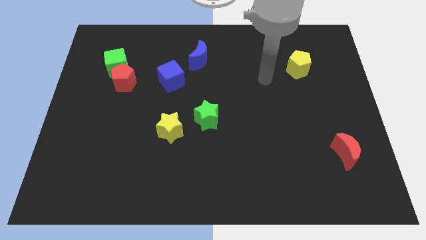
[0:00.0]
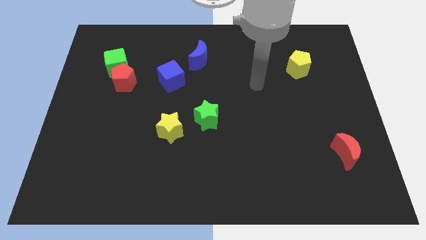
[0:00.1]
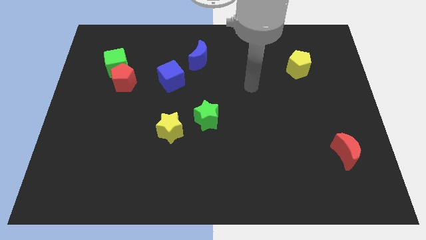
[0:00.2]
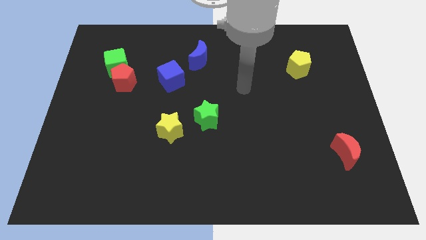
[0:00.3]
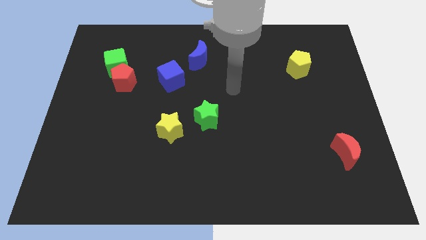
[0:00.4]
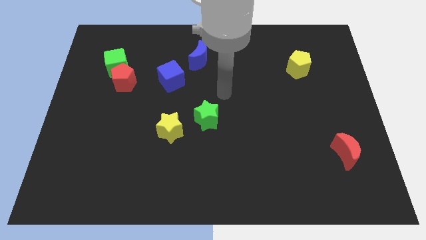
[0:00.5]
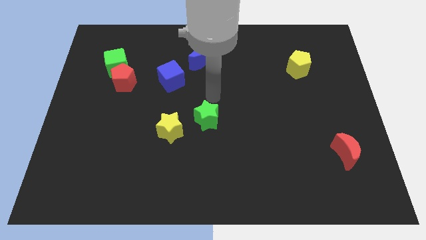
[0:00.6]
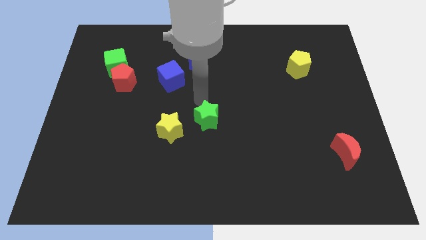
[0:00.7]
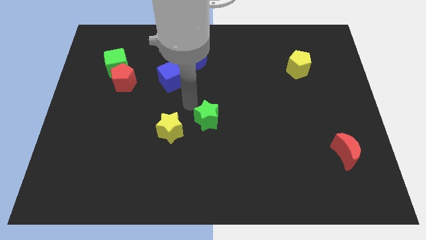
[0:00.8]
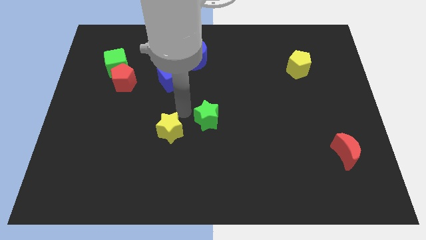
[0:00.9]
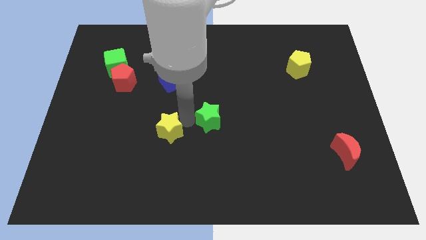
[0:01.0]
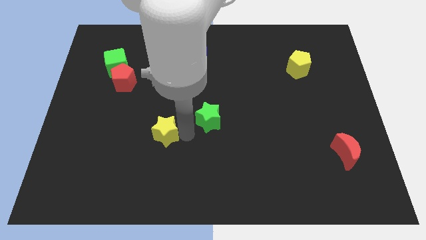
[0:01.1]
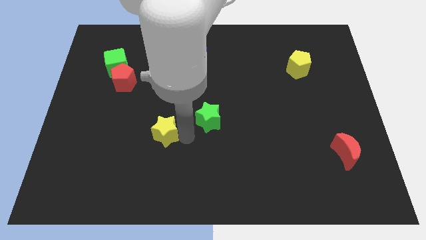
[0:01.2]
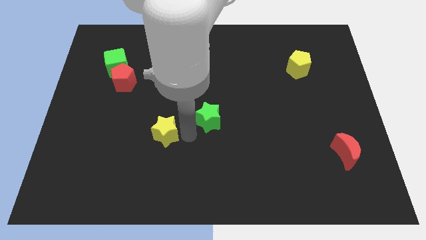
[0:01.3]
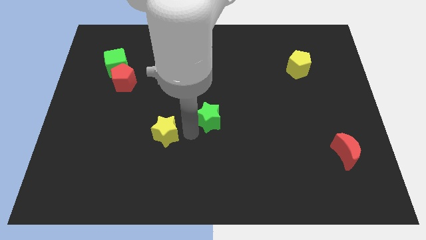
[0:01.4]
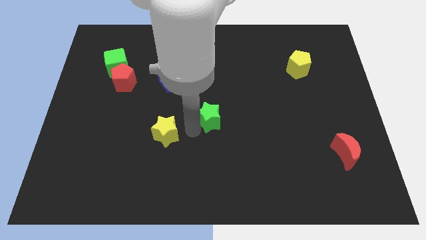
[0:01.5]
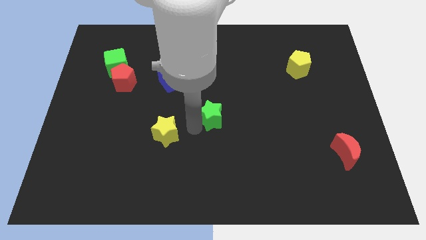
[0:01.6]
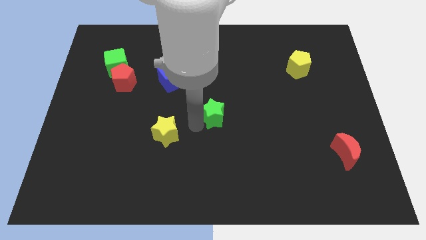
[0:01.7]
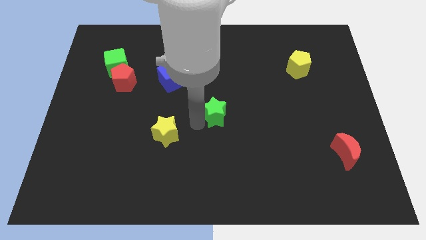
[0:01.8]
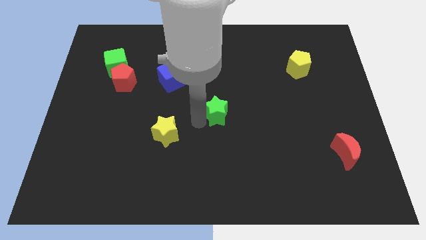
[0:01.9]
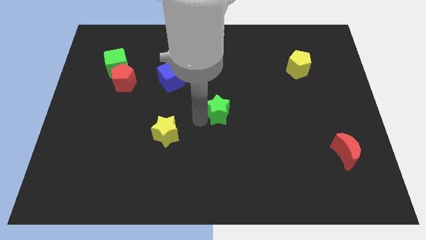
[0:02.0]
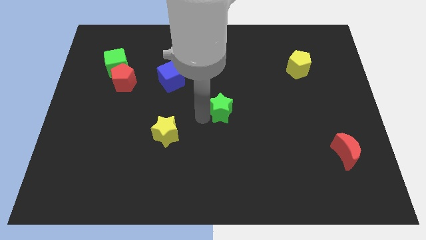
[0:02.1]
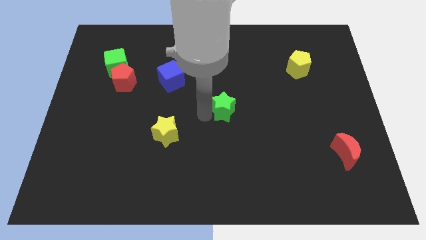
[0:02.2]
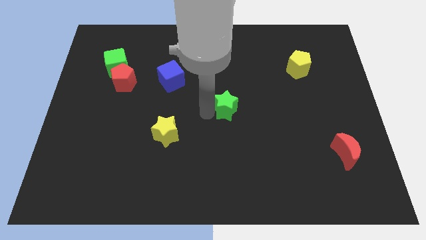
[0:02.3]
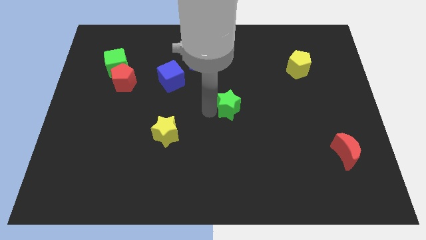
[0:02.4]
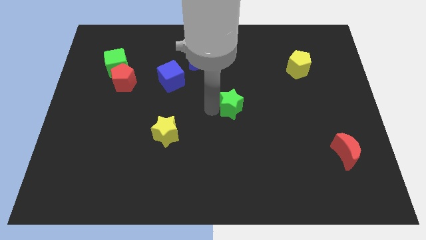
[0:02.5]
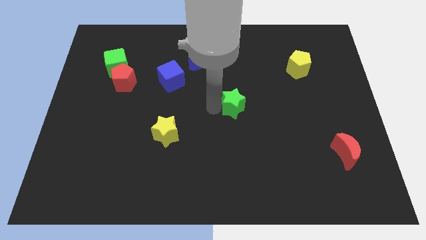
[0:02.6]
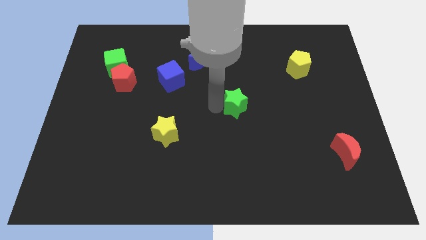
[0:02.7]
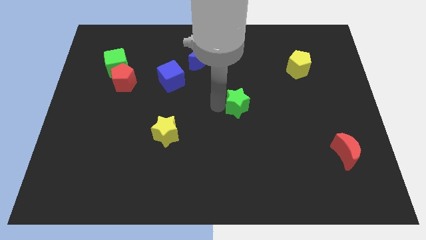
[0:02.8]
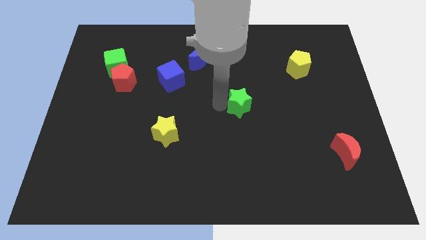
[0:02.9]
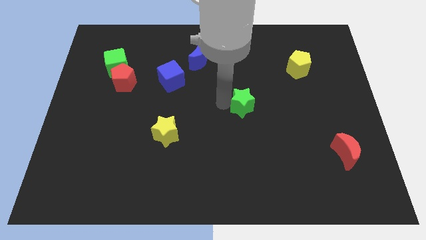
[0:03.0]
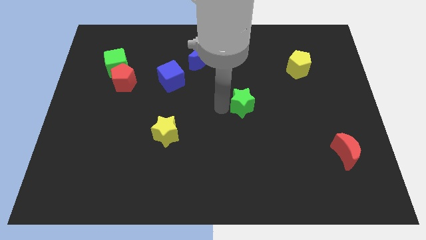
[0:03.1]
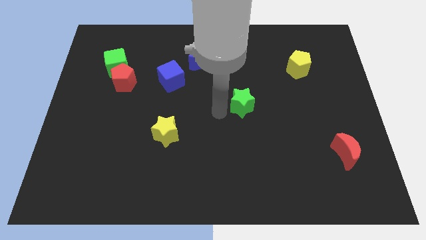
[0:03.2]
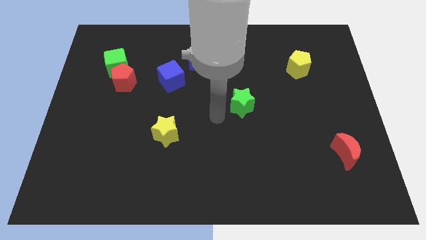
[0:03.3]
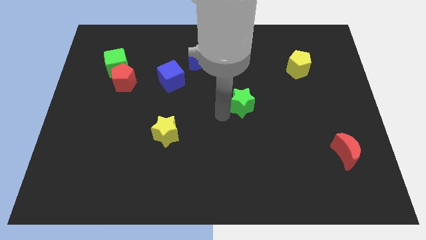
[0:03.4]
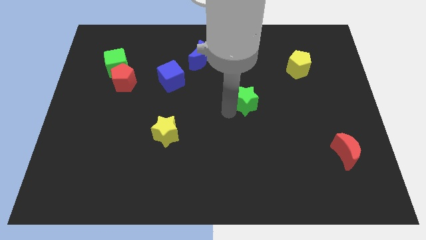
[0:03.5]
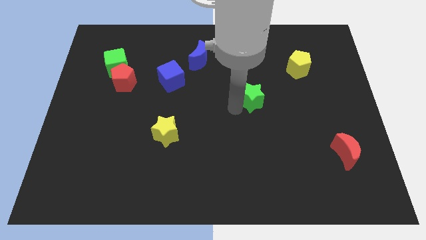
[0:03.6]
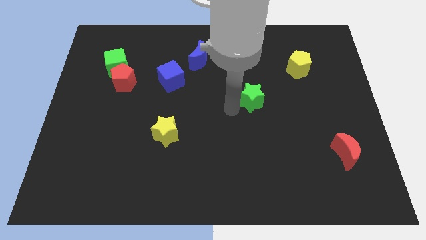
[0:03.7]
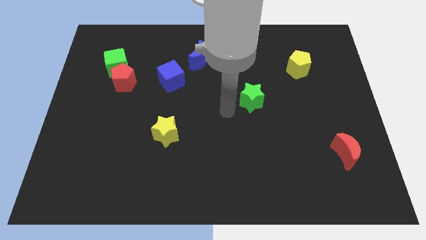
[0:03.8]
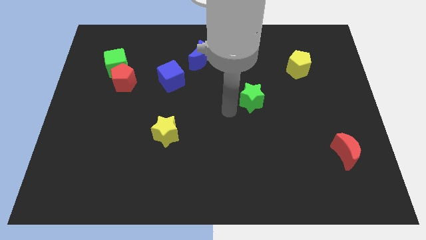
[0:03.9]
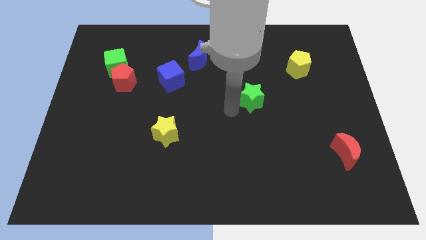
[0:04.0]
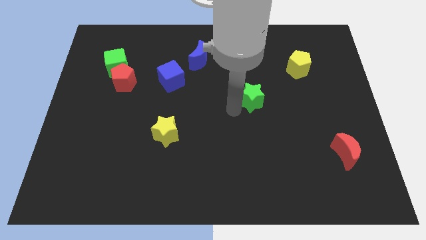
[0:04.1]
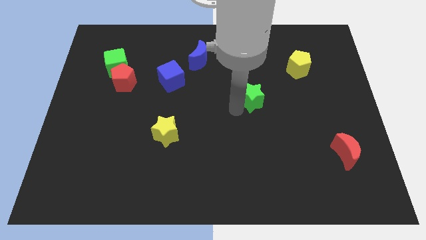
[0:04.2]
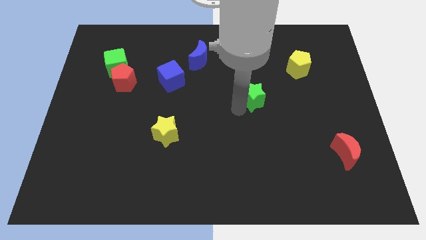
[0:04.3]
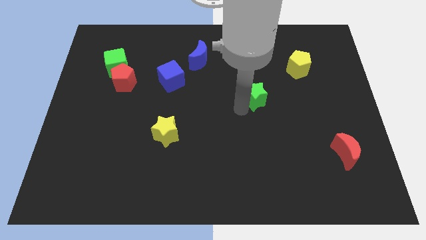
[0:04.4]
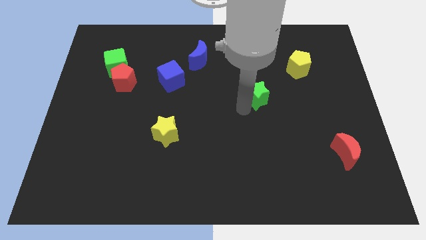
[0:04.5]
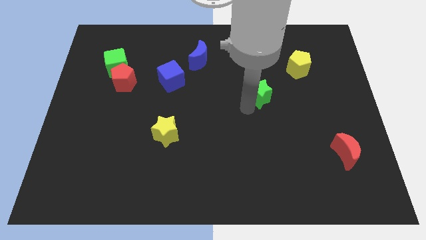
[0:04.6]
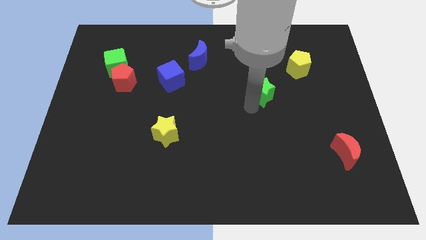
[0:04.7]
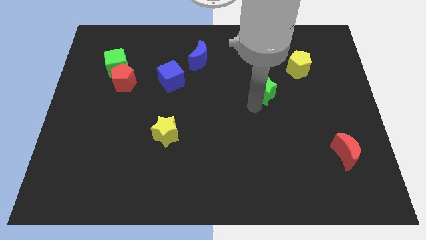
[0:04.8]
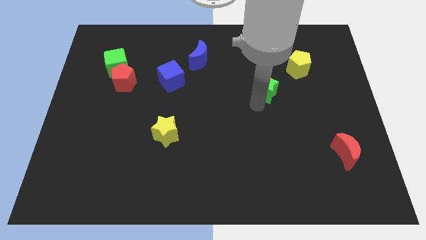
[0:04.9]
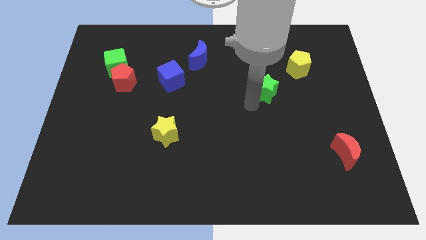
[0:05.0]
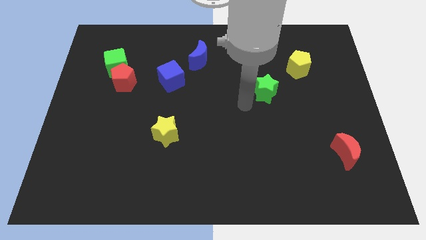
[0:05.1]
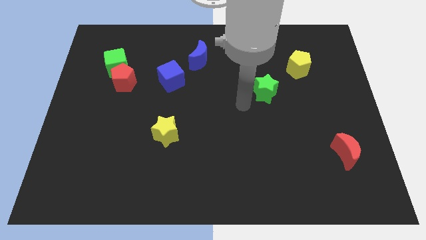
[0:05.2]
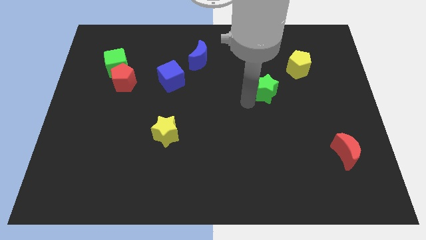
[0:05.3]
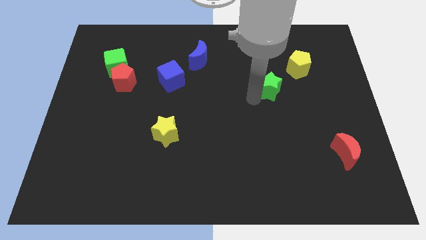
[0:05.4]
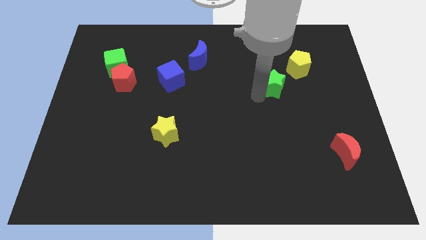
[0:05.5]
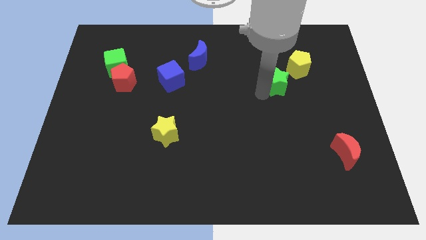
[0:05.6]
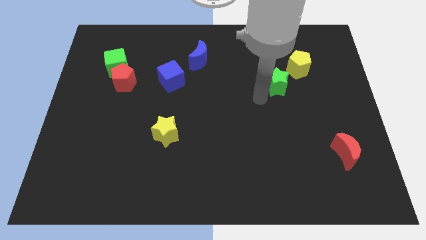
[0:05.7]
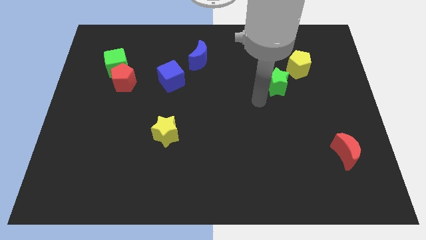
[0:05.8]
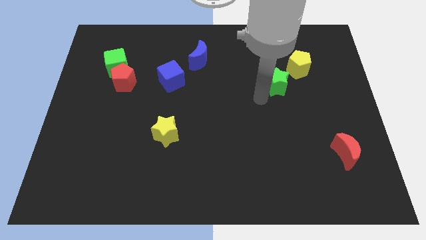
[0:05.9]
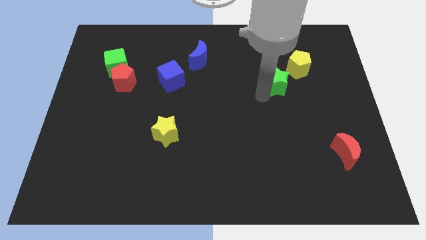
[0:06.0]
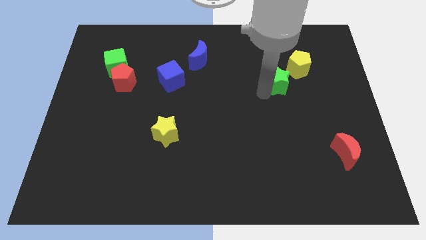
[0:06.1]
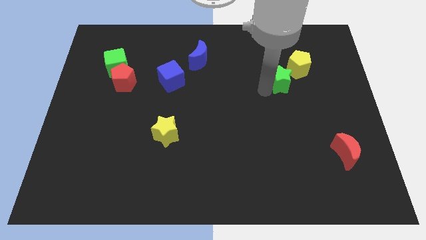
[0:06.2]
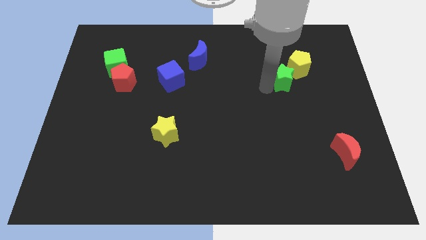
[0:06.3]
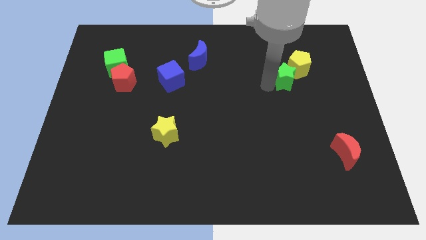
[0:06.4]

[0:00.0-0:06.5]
push the green star to the yellow pentagon

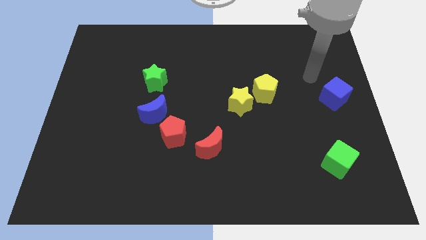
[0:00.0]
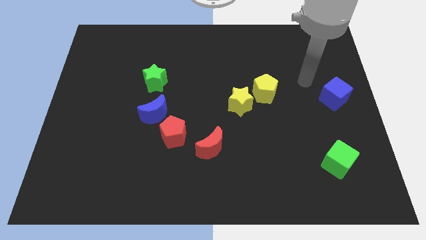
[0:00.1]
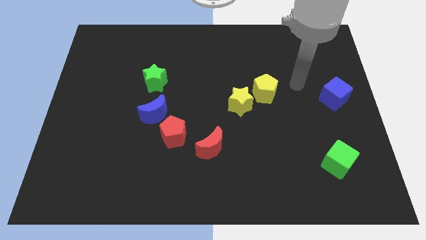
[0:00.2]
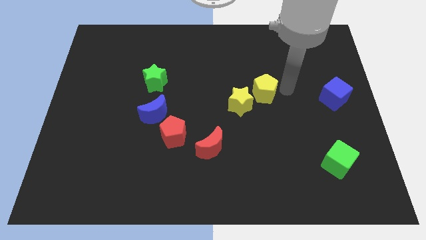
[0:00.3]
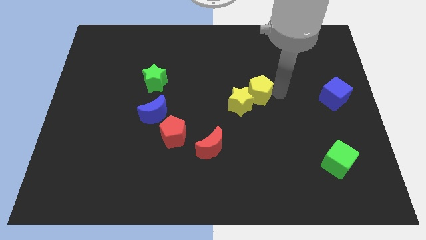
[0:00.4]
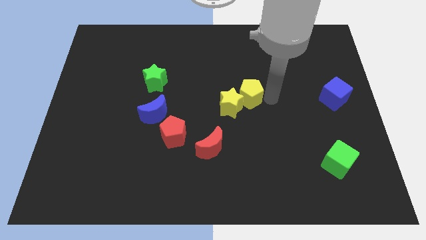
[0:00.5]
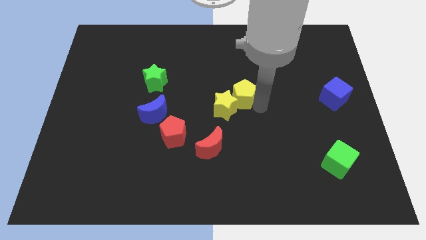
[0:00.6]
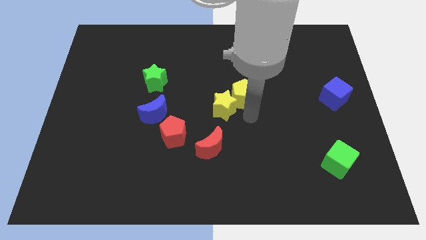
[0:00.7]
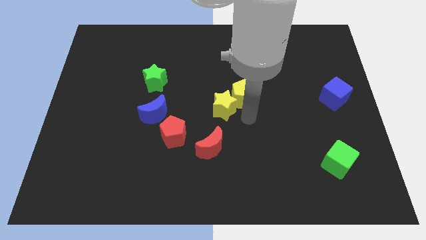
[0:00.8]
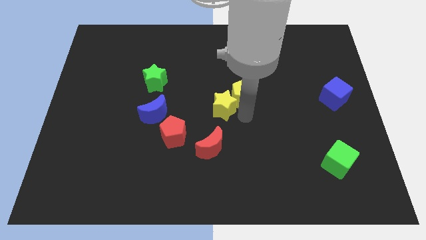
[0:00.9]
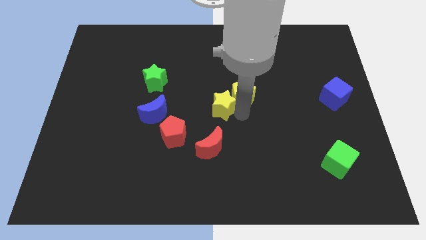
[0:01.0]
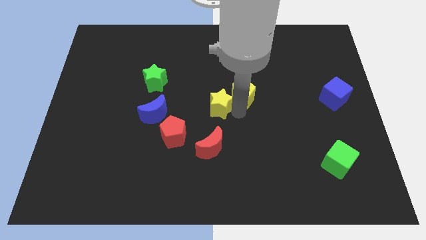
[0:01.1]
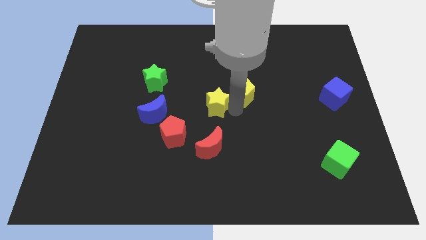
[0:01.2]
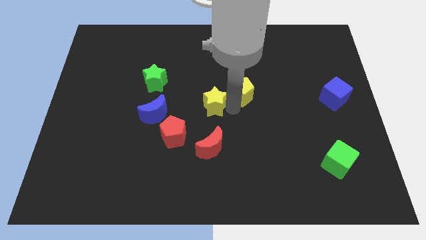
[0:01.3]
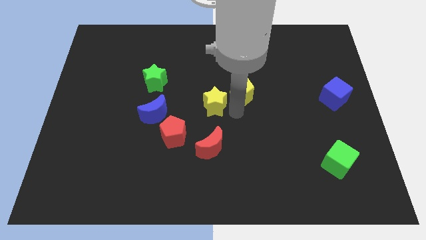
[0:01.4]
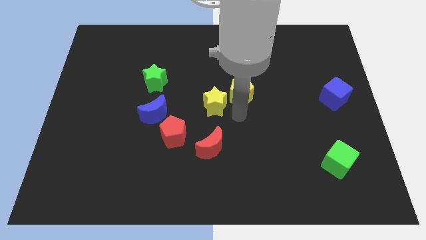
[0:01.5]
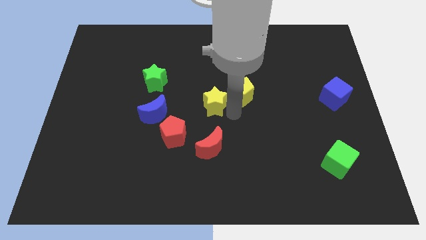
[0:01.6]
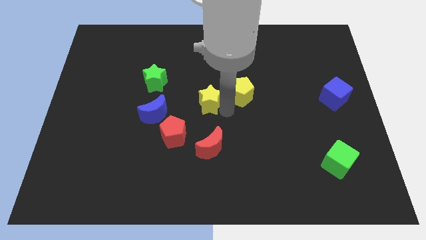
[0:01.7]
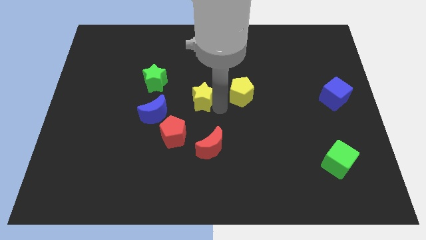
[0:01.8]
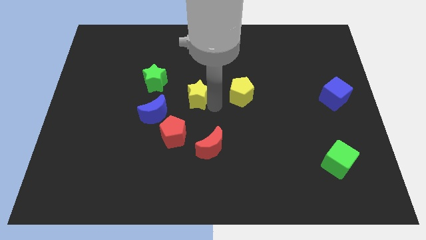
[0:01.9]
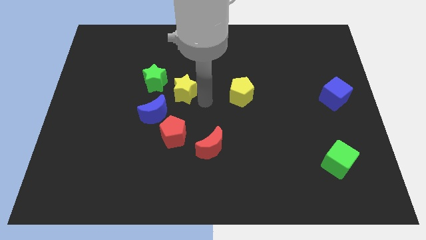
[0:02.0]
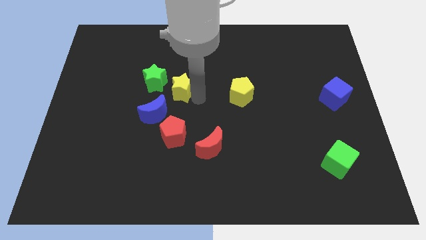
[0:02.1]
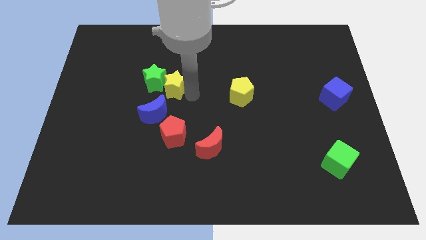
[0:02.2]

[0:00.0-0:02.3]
push the yellow star next to the green star
